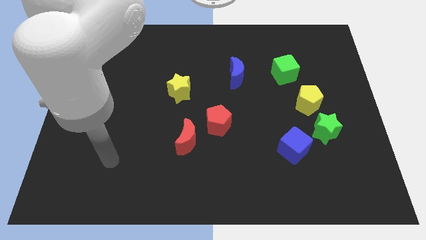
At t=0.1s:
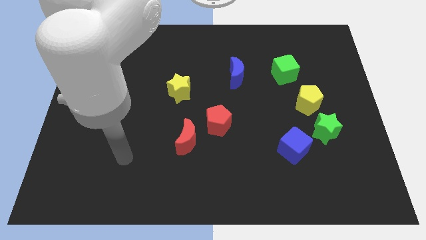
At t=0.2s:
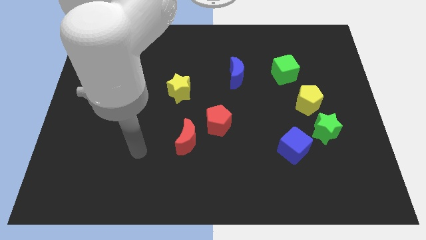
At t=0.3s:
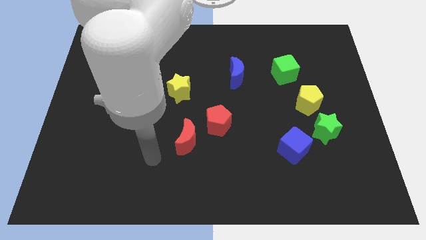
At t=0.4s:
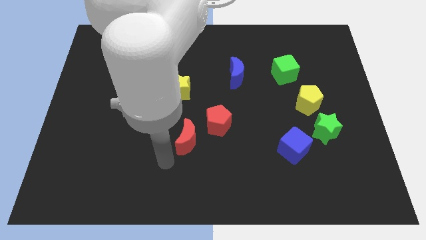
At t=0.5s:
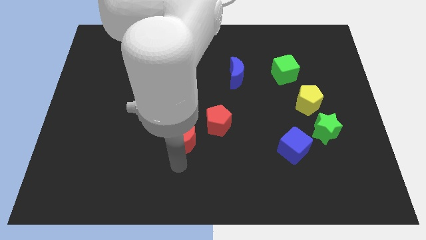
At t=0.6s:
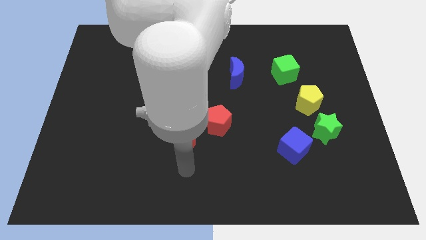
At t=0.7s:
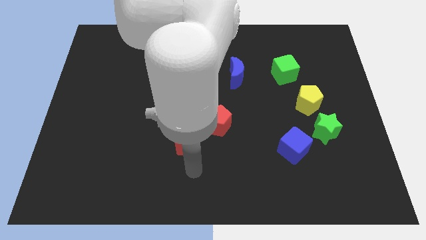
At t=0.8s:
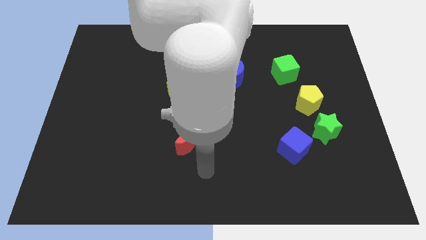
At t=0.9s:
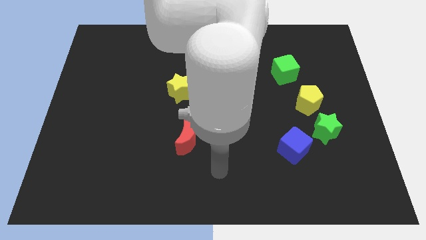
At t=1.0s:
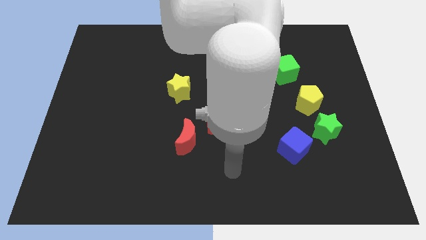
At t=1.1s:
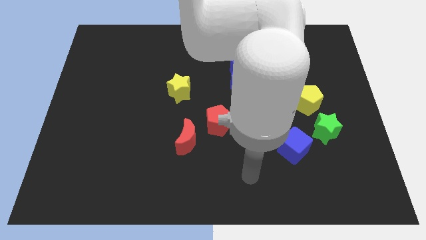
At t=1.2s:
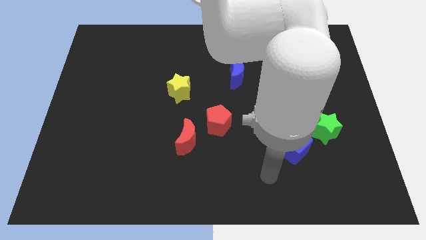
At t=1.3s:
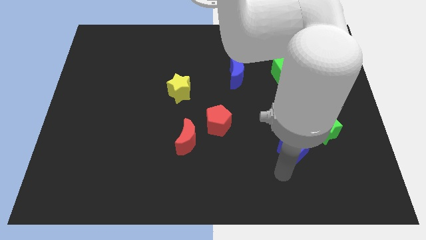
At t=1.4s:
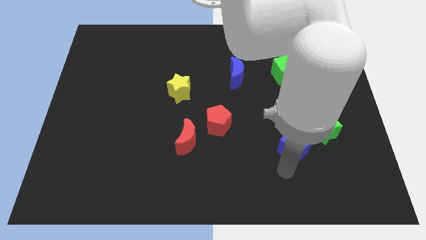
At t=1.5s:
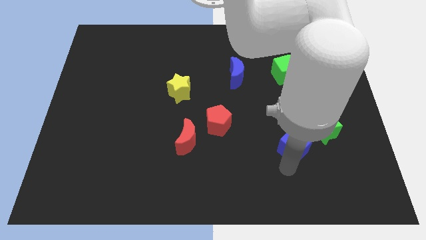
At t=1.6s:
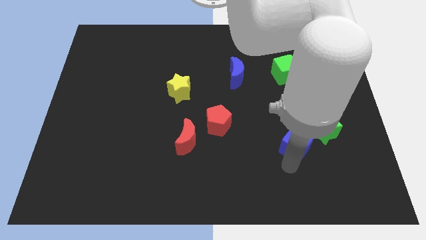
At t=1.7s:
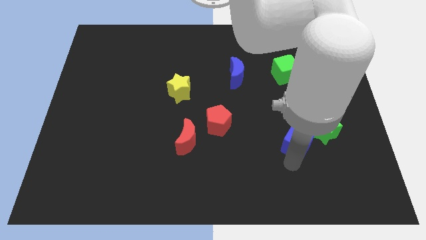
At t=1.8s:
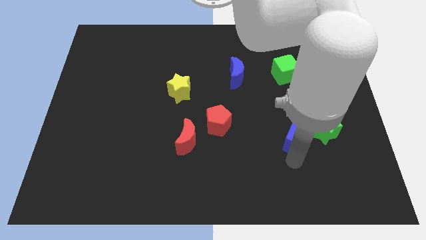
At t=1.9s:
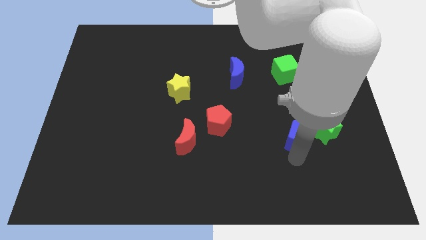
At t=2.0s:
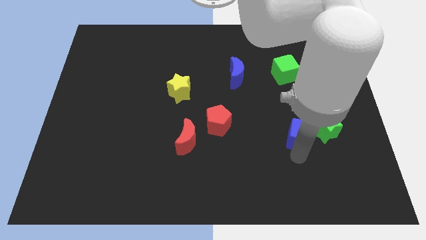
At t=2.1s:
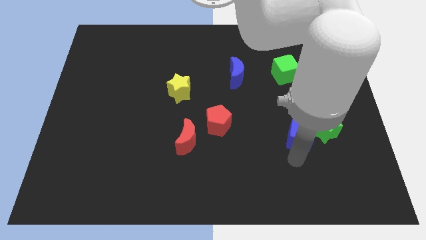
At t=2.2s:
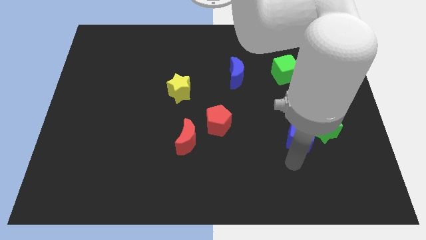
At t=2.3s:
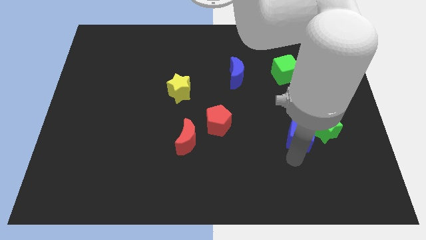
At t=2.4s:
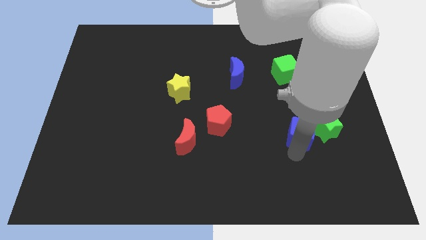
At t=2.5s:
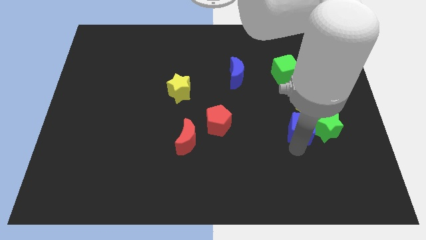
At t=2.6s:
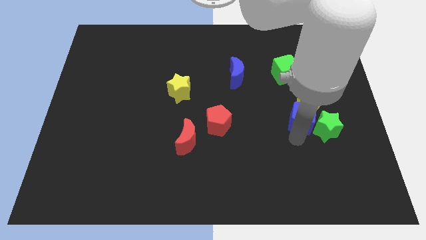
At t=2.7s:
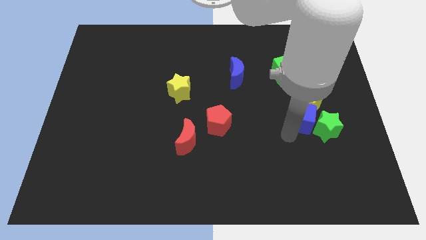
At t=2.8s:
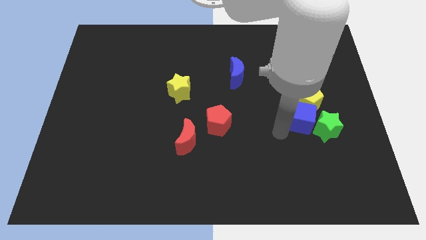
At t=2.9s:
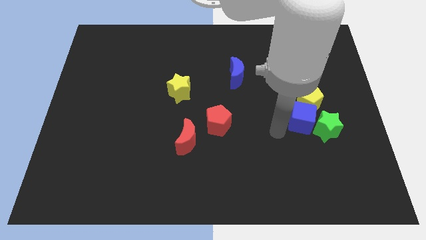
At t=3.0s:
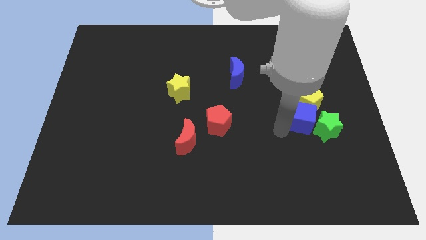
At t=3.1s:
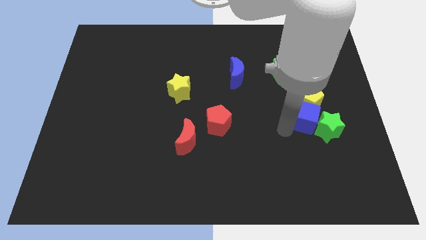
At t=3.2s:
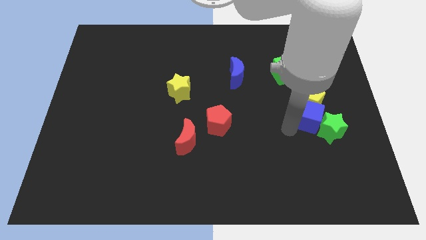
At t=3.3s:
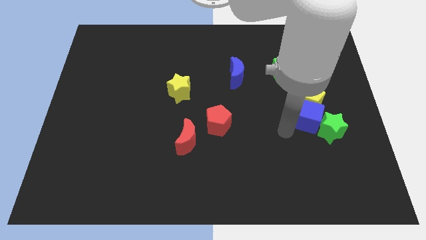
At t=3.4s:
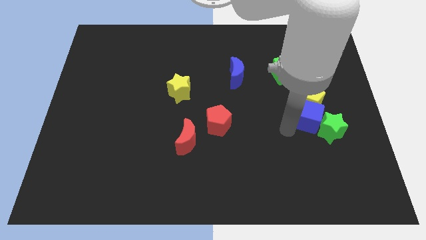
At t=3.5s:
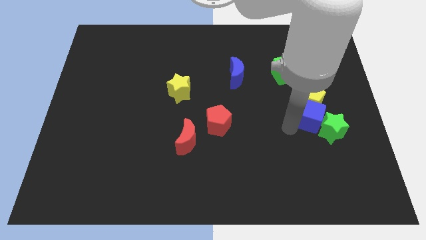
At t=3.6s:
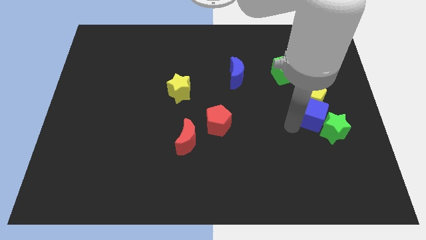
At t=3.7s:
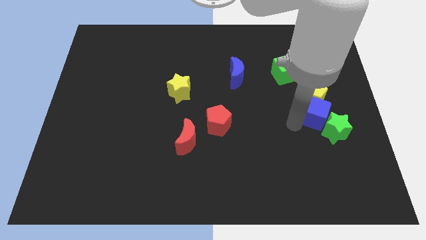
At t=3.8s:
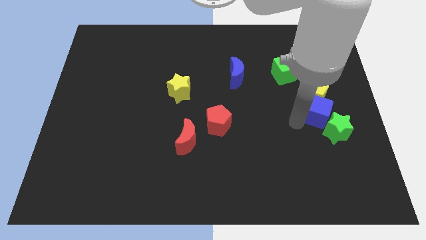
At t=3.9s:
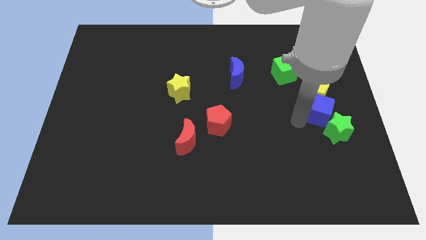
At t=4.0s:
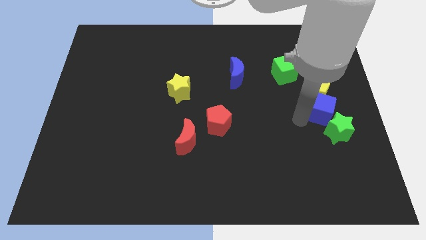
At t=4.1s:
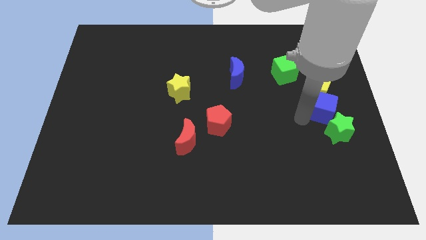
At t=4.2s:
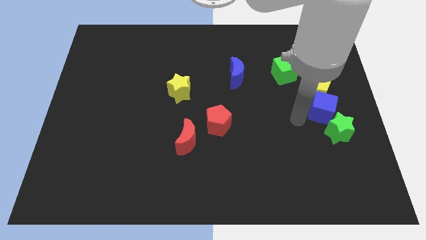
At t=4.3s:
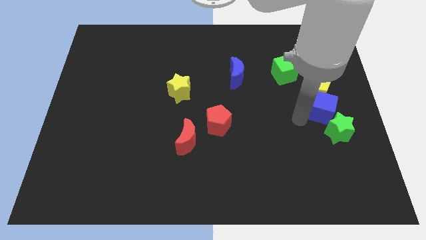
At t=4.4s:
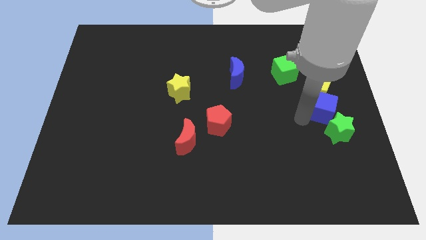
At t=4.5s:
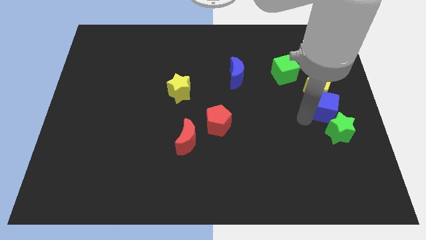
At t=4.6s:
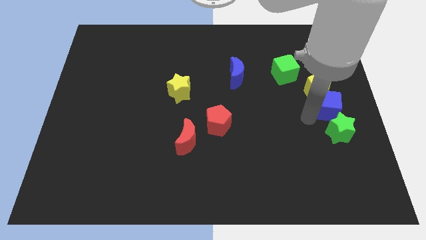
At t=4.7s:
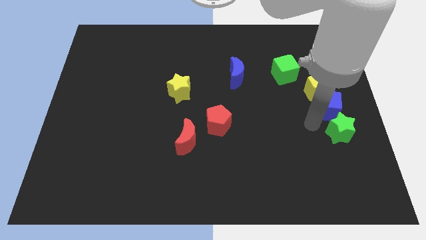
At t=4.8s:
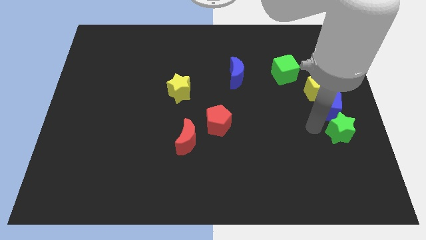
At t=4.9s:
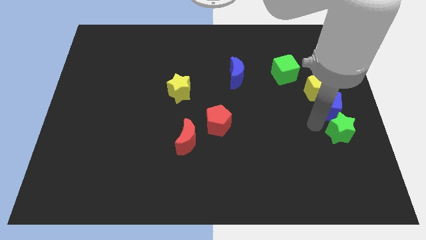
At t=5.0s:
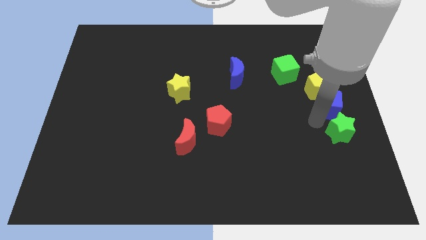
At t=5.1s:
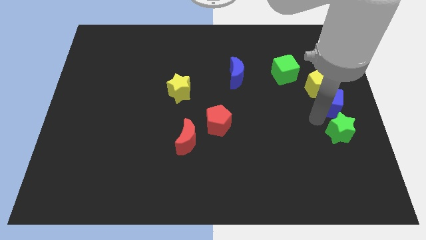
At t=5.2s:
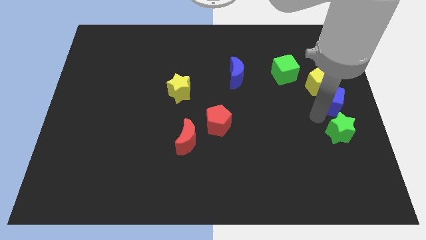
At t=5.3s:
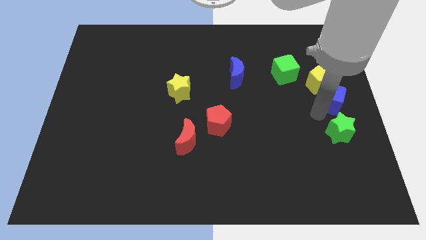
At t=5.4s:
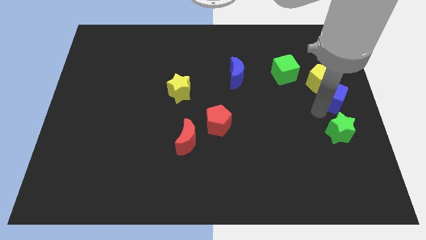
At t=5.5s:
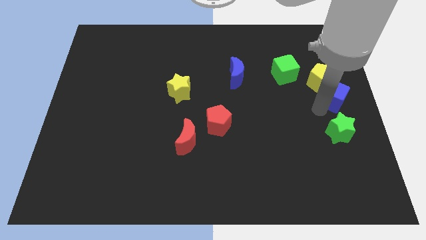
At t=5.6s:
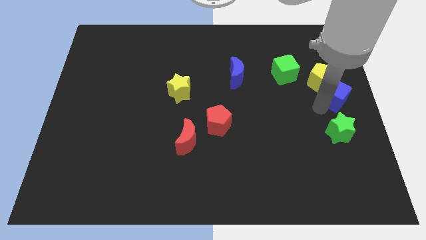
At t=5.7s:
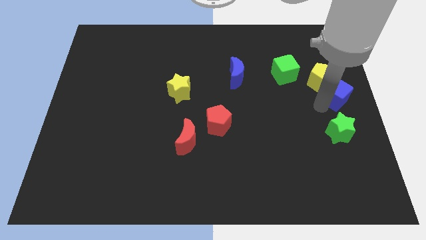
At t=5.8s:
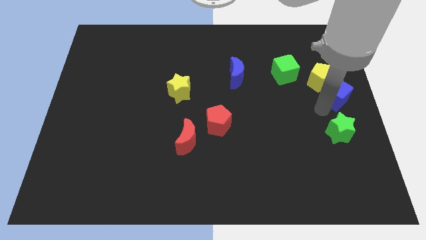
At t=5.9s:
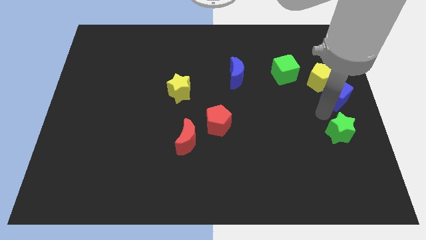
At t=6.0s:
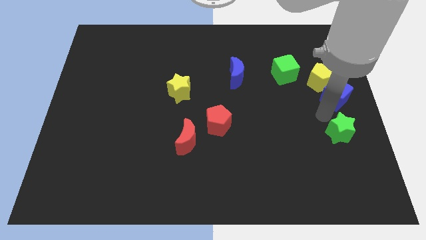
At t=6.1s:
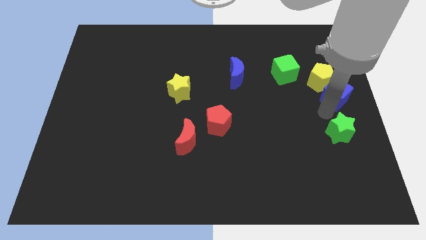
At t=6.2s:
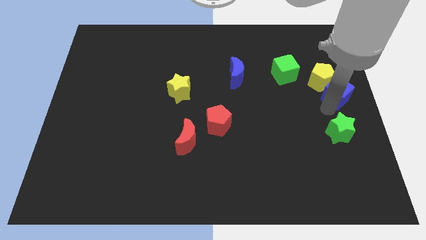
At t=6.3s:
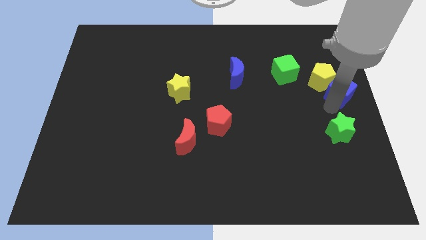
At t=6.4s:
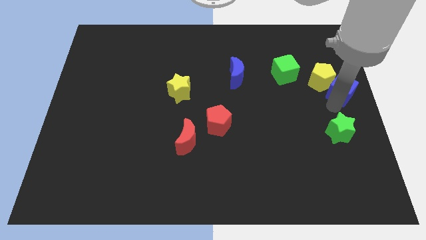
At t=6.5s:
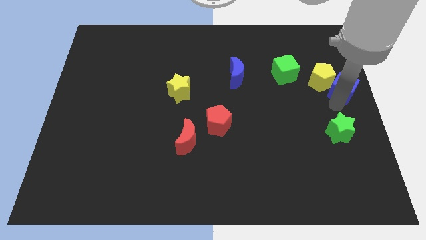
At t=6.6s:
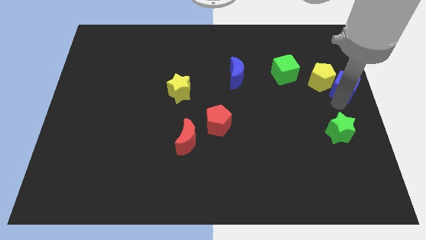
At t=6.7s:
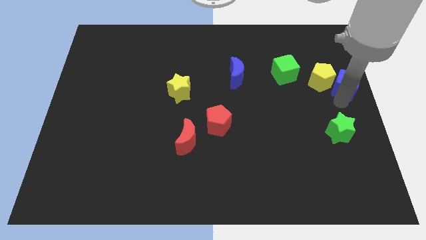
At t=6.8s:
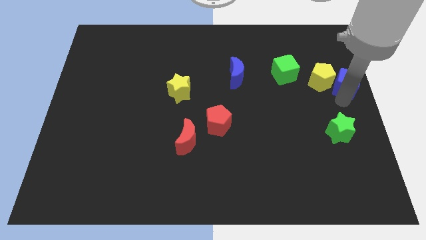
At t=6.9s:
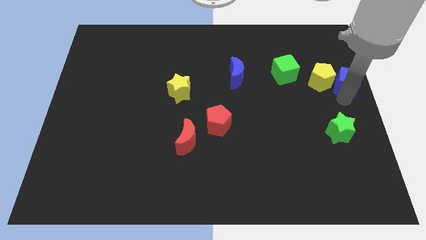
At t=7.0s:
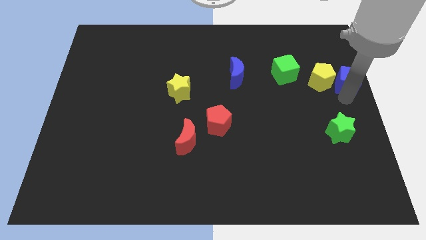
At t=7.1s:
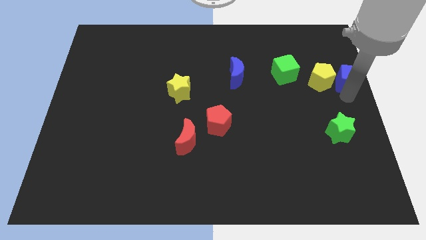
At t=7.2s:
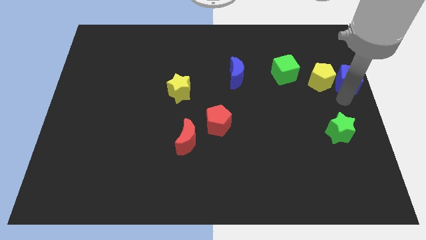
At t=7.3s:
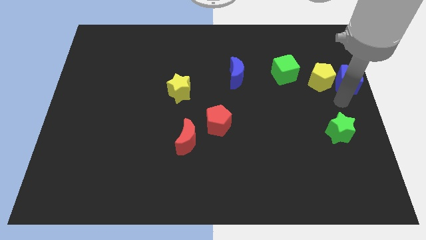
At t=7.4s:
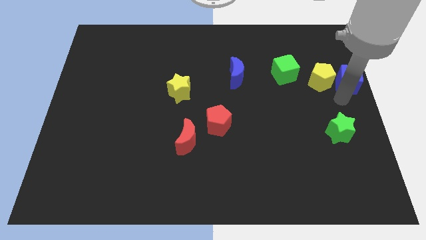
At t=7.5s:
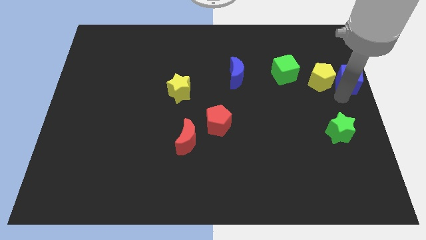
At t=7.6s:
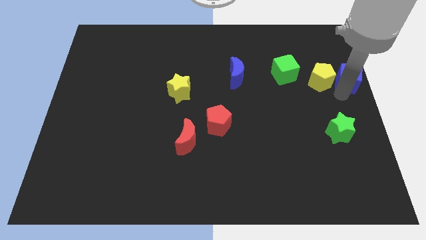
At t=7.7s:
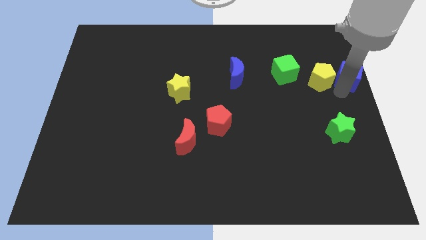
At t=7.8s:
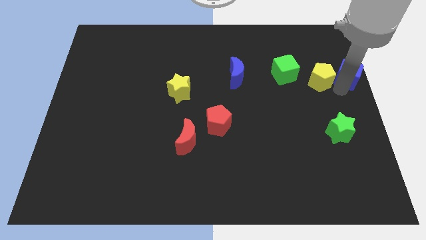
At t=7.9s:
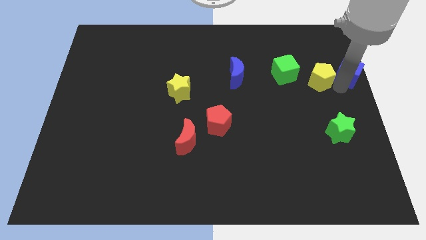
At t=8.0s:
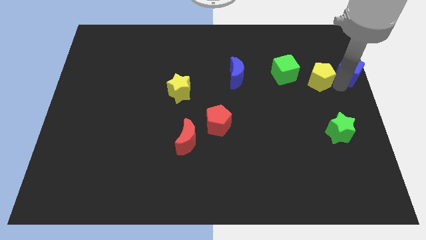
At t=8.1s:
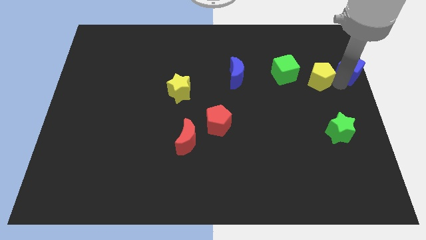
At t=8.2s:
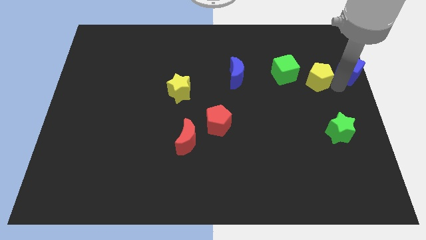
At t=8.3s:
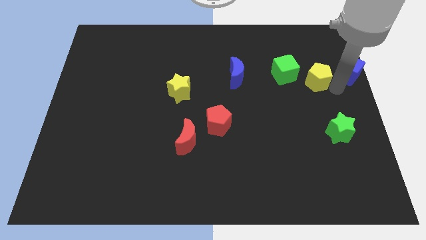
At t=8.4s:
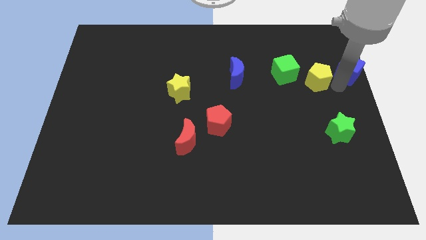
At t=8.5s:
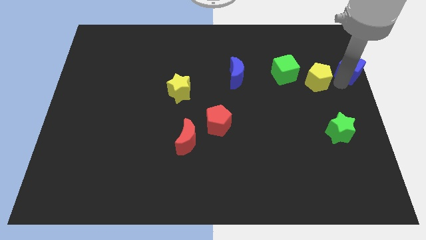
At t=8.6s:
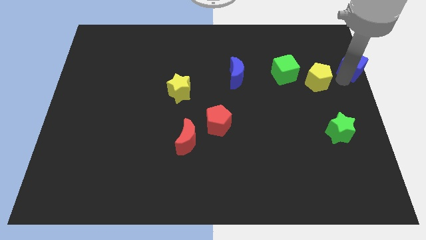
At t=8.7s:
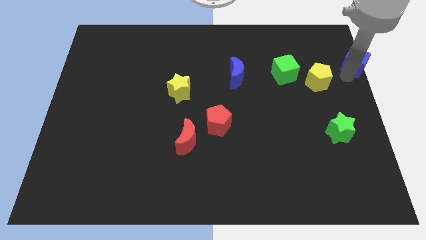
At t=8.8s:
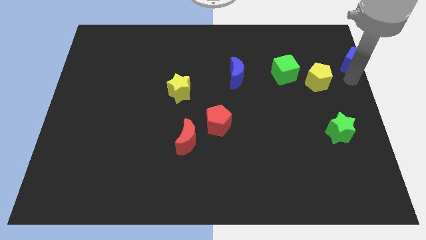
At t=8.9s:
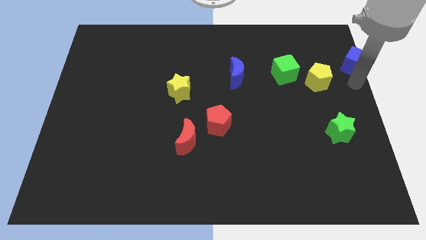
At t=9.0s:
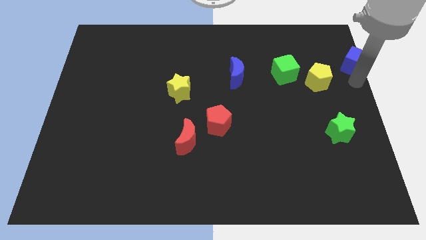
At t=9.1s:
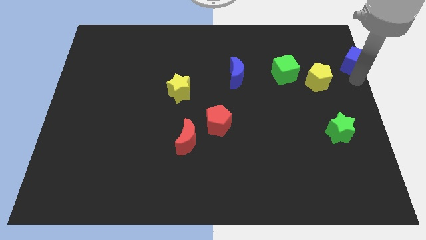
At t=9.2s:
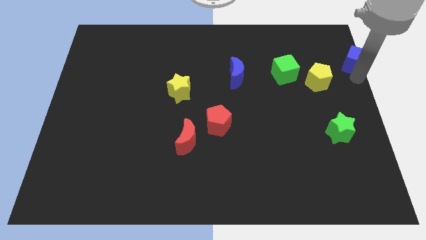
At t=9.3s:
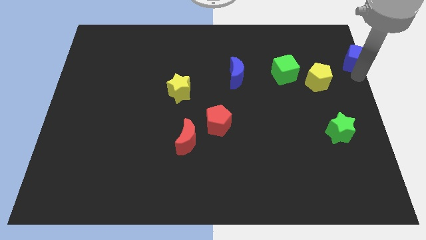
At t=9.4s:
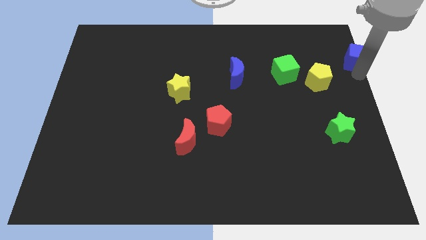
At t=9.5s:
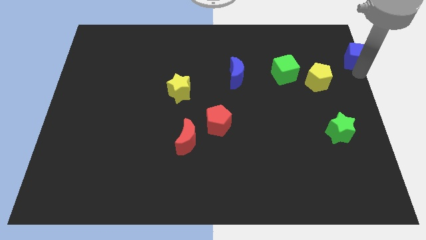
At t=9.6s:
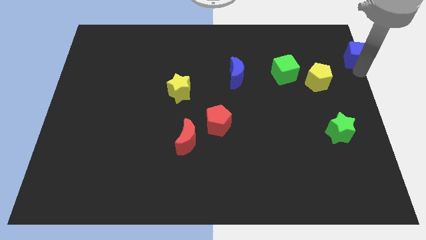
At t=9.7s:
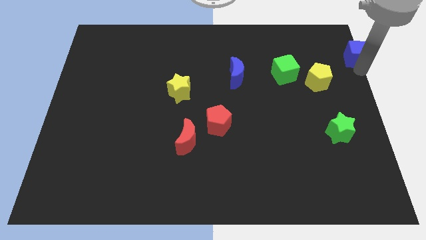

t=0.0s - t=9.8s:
slide the blue cube to the top right corner
